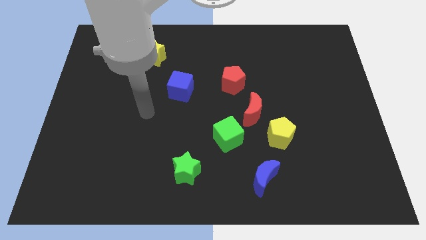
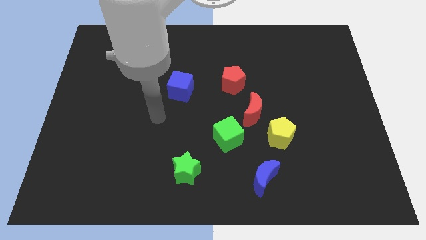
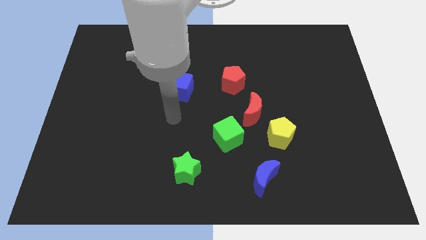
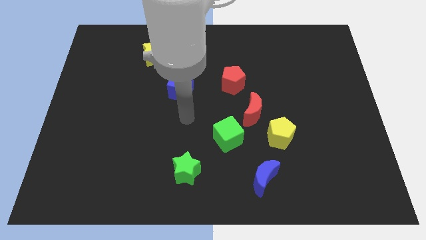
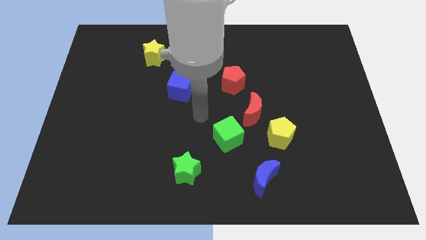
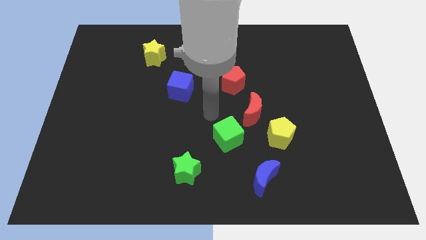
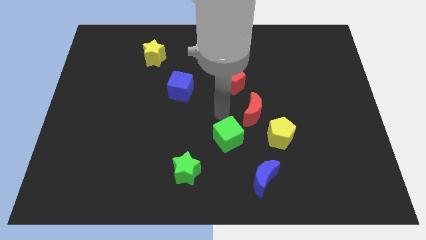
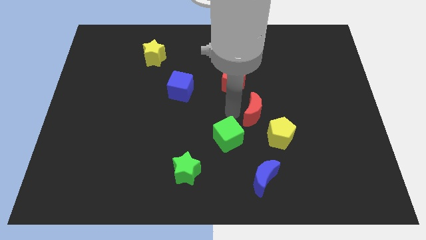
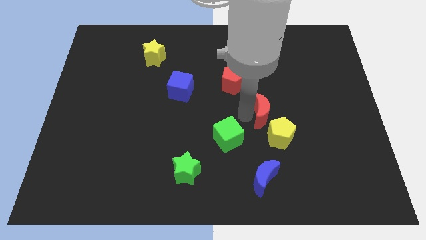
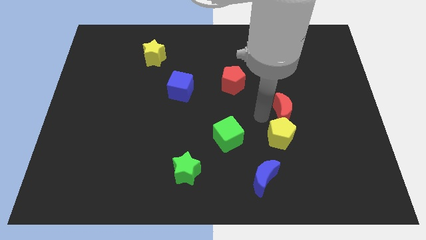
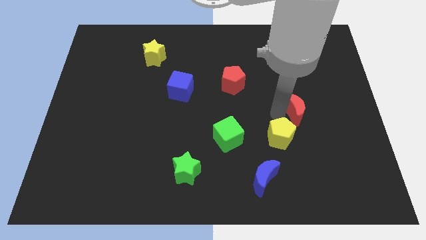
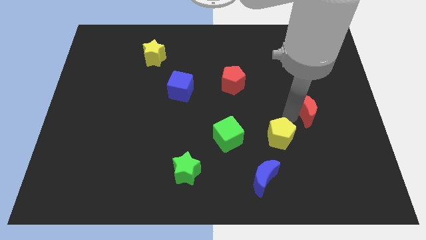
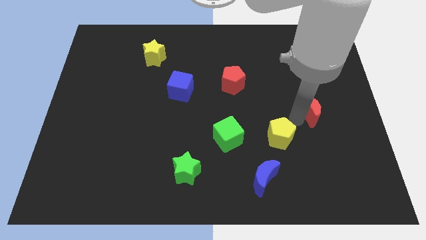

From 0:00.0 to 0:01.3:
move the yellow pentagon away from the red moon

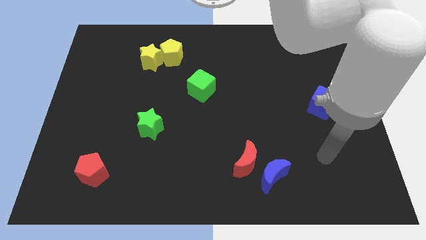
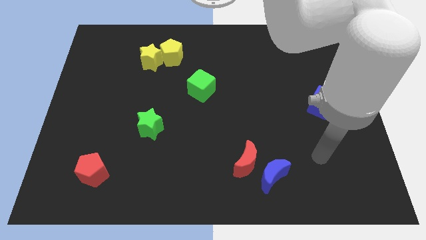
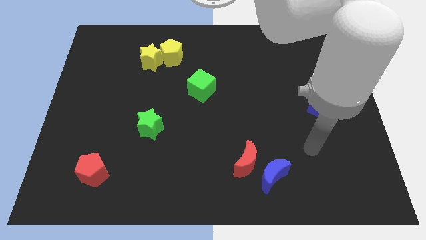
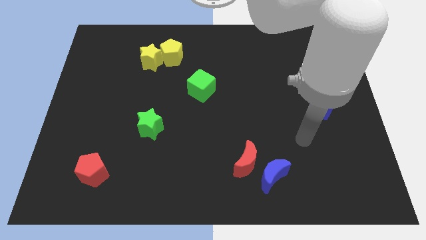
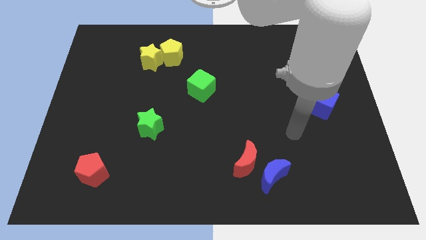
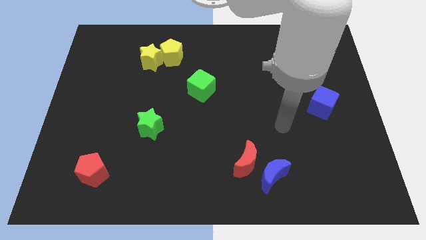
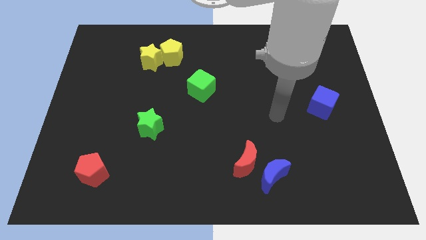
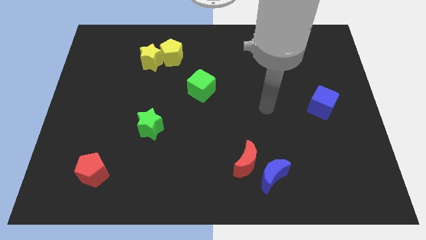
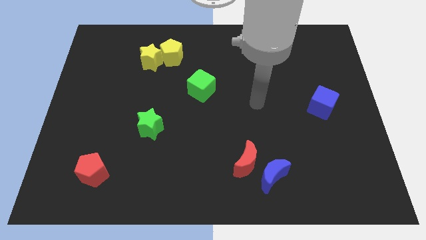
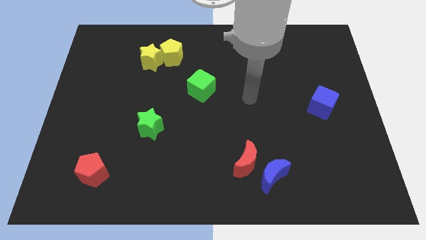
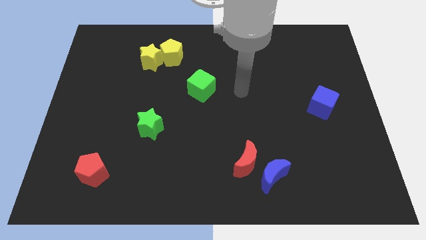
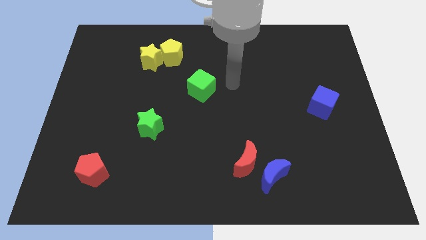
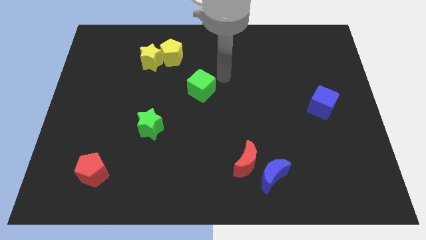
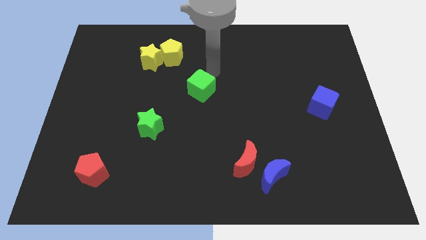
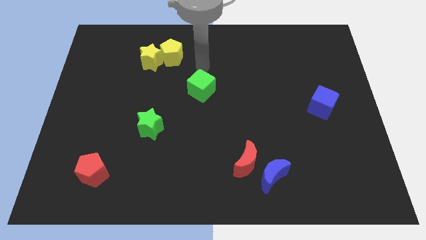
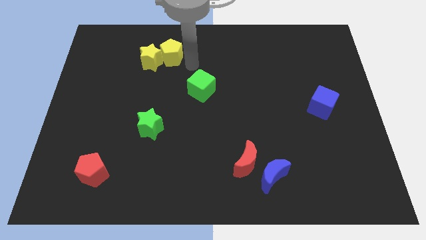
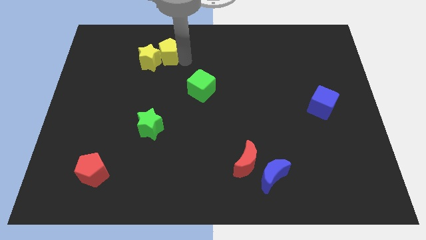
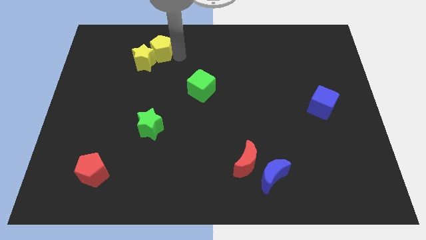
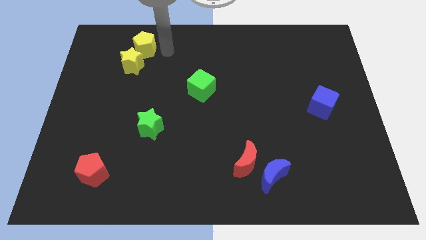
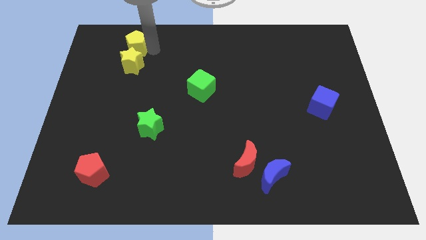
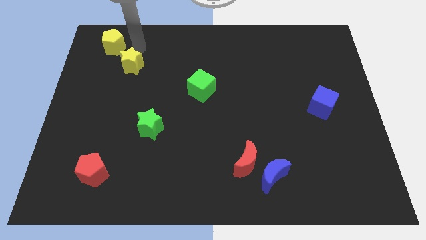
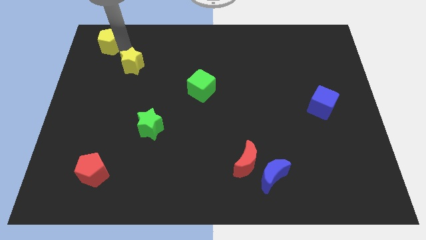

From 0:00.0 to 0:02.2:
pull the yellow star apart from the yellow pentagon

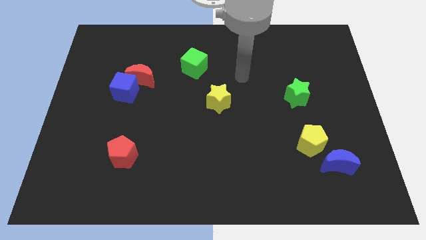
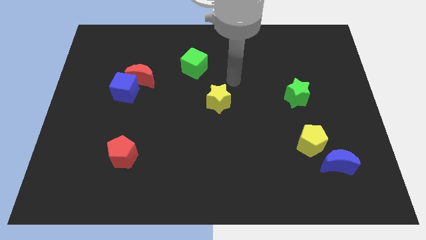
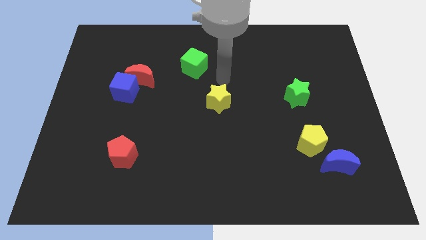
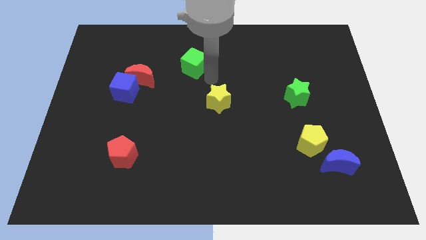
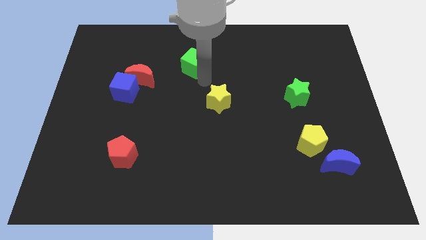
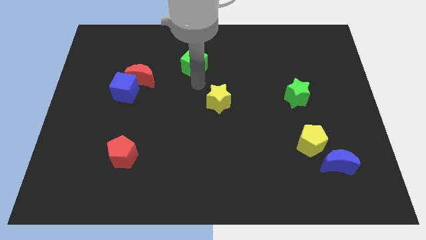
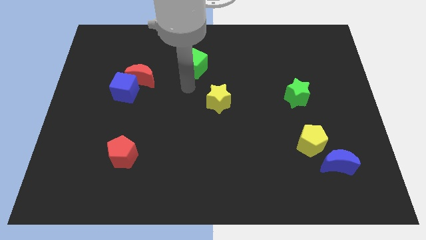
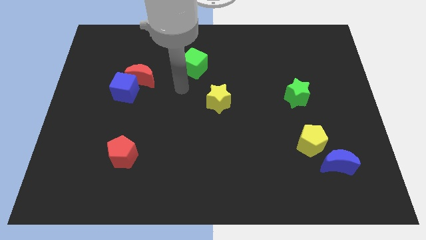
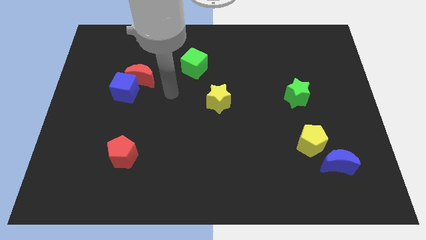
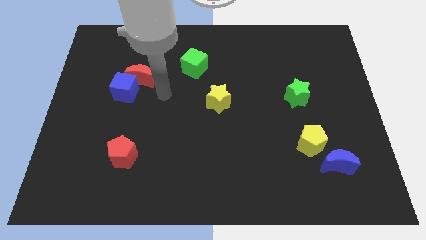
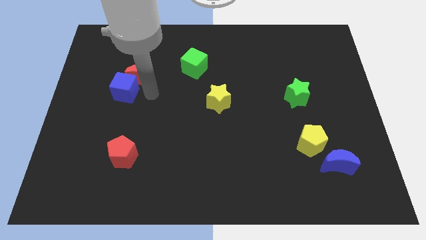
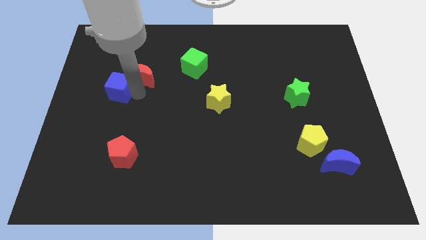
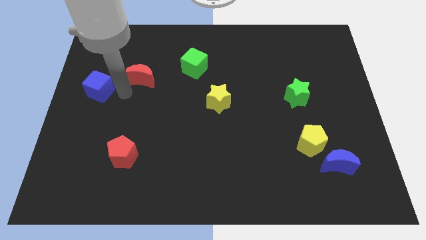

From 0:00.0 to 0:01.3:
separate the red moon from the blue cube

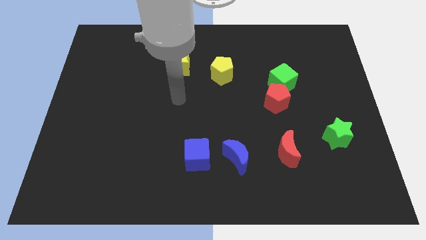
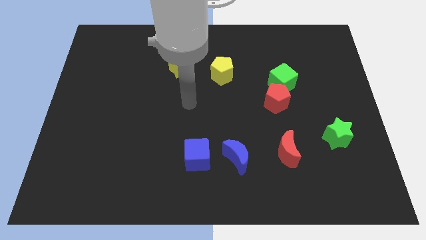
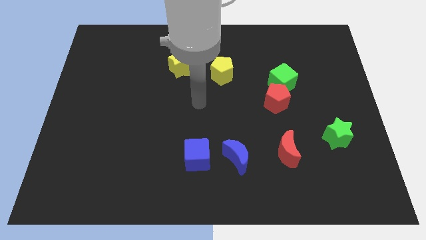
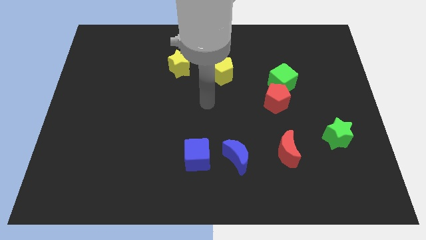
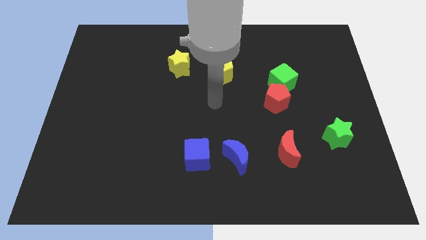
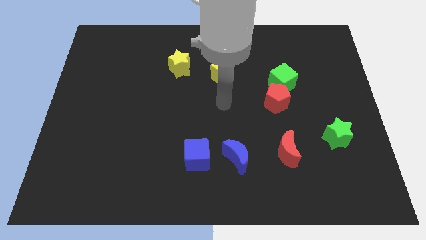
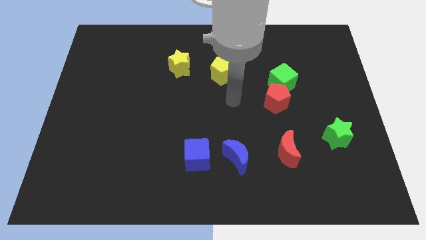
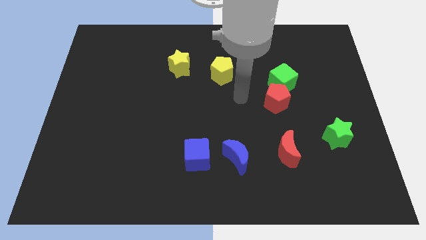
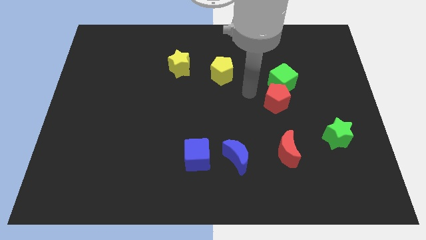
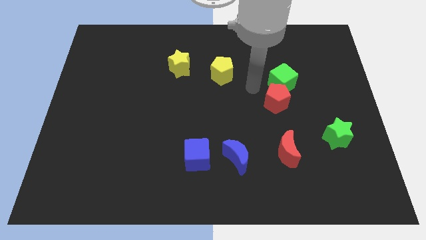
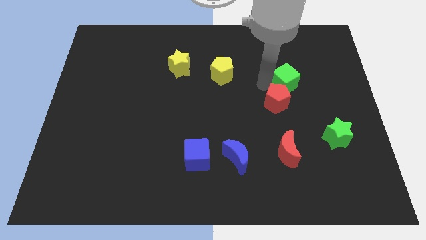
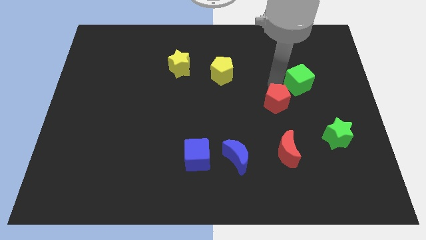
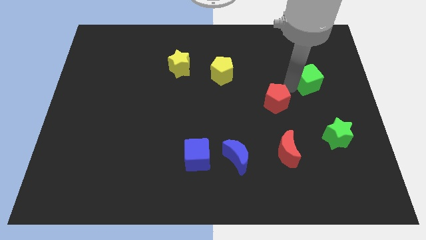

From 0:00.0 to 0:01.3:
pull the red pentagon apart from the green cube

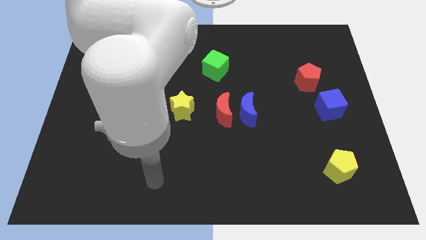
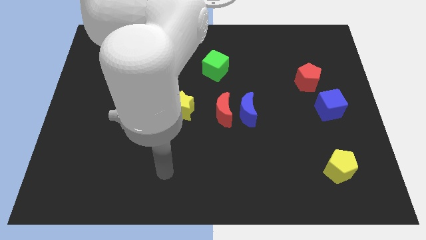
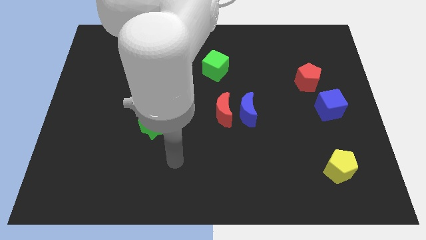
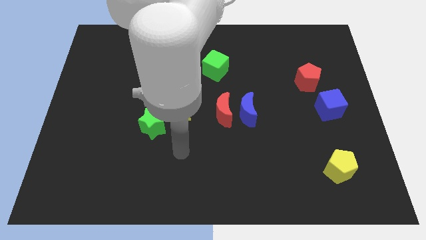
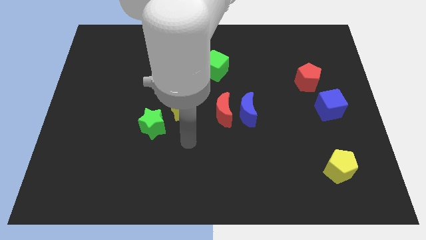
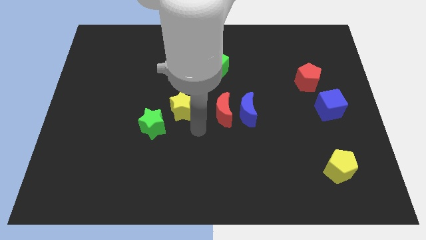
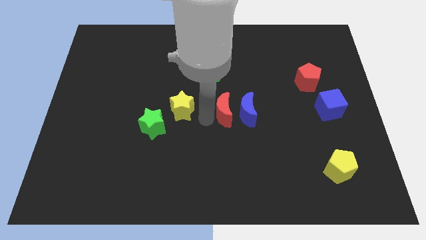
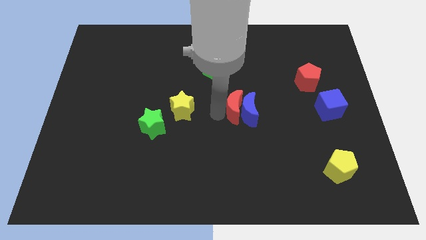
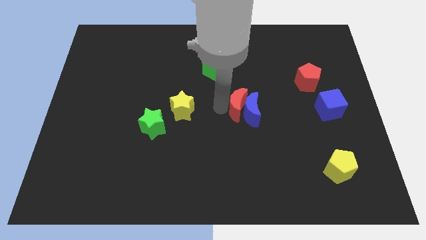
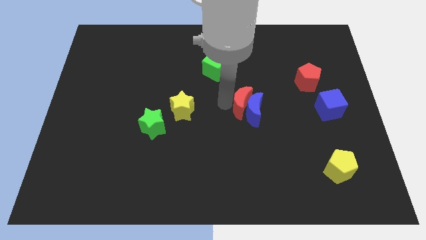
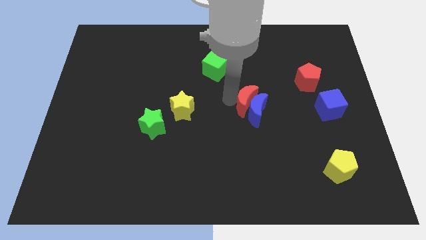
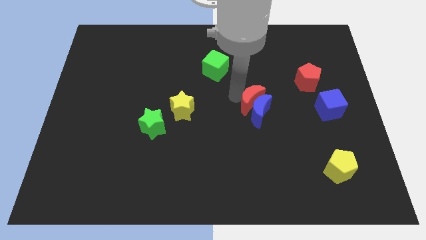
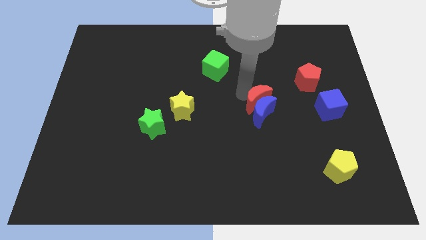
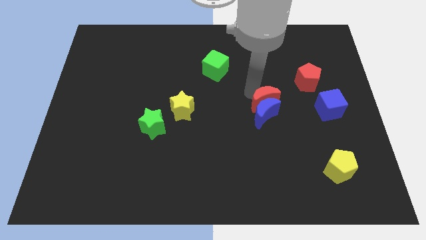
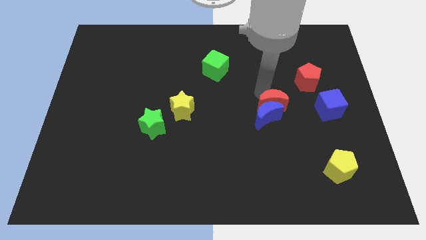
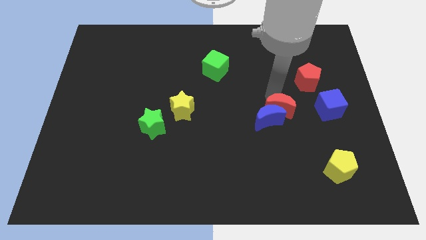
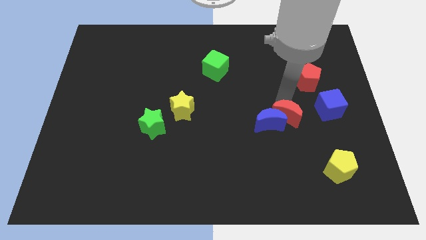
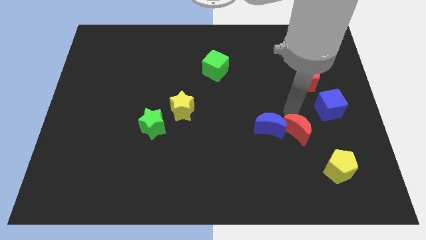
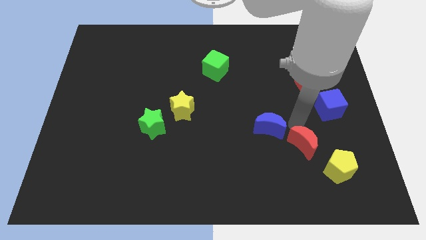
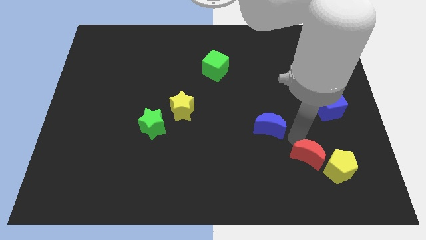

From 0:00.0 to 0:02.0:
pull the blue moon apart from the red moon

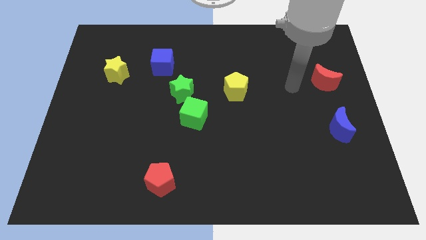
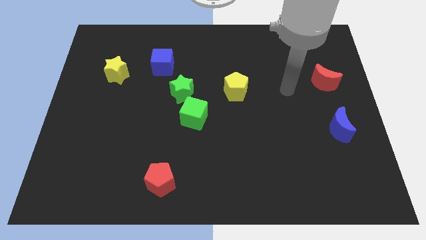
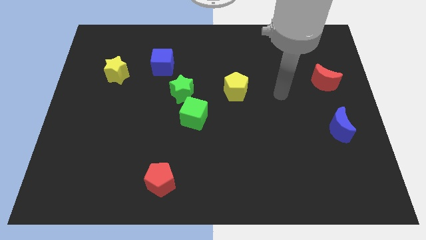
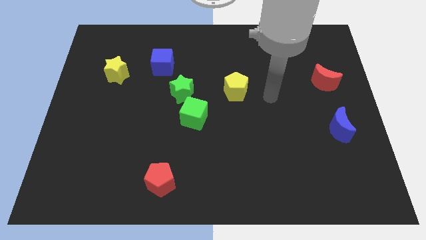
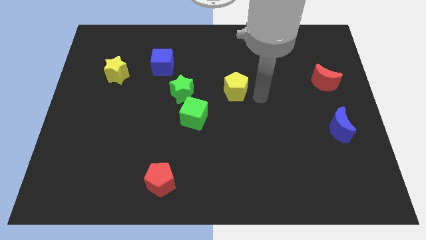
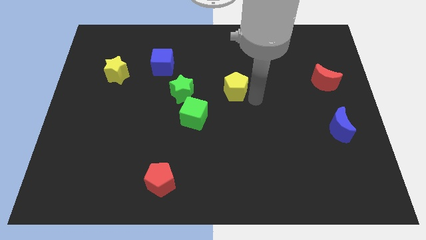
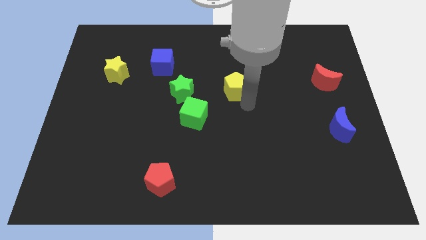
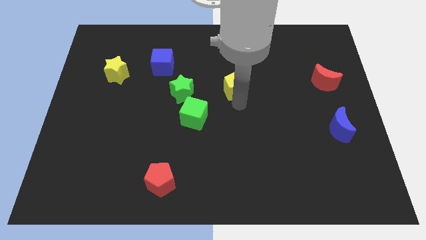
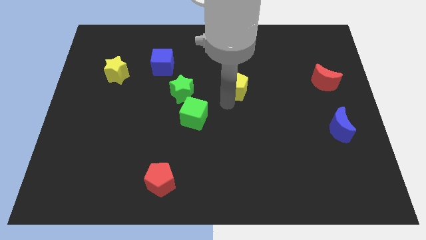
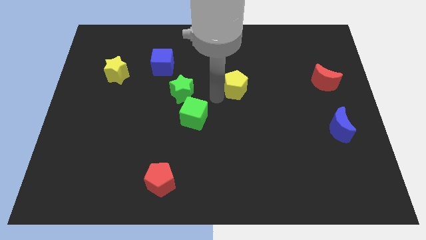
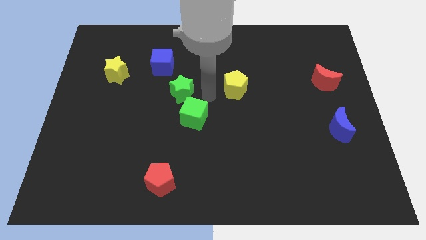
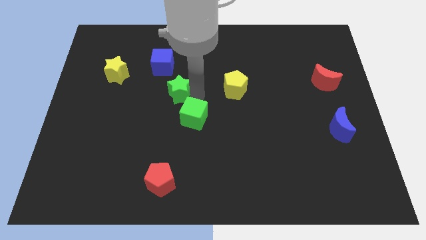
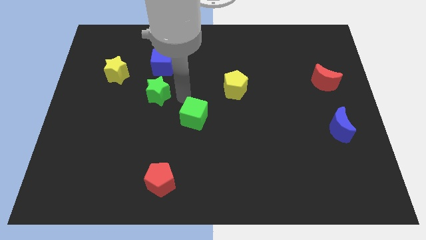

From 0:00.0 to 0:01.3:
separate the green cube from the green star
